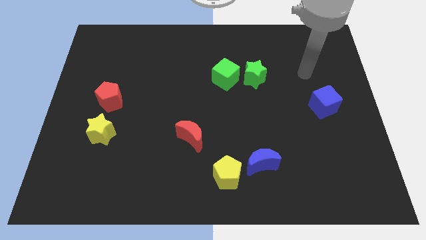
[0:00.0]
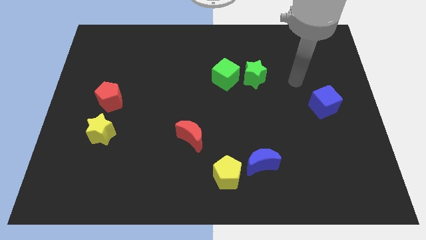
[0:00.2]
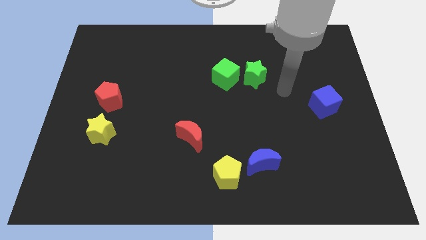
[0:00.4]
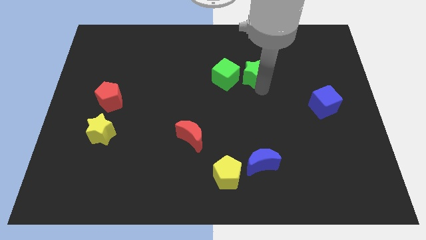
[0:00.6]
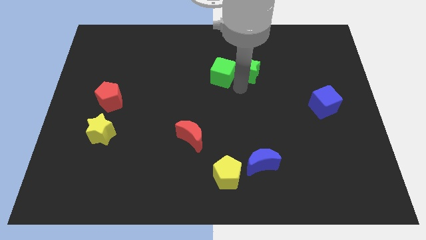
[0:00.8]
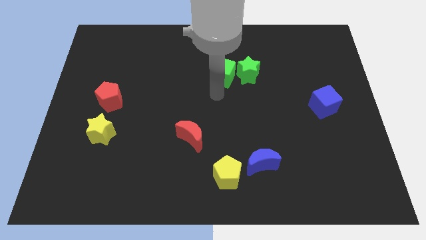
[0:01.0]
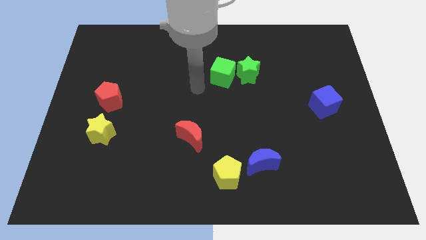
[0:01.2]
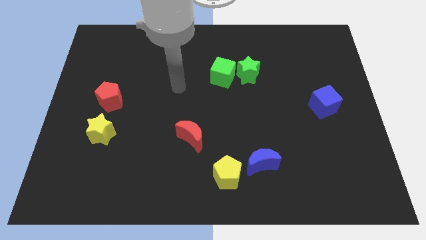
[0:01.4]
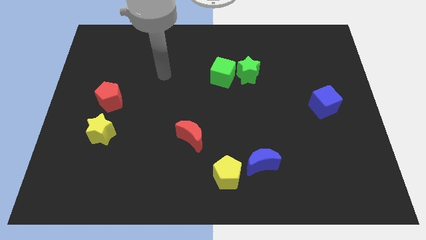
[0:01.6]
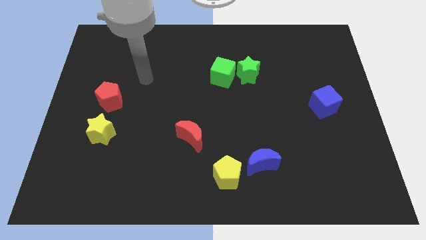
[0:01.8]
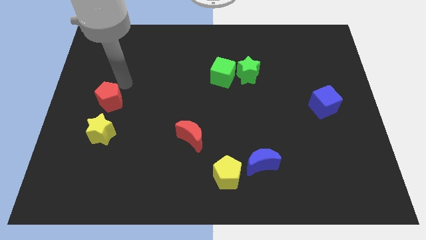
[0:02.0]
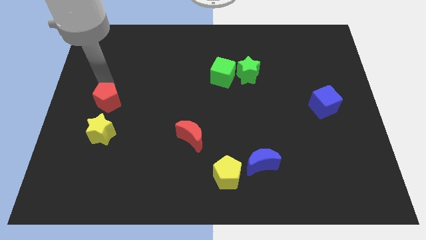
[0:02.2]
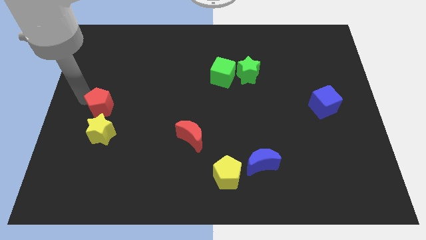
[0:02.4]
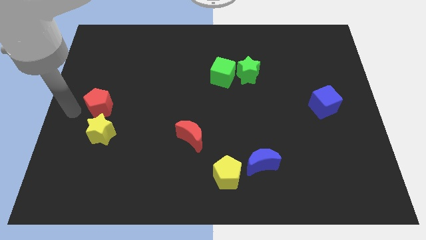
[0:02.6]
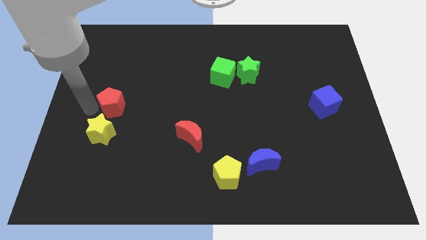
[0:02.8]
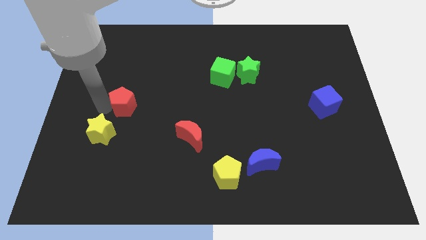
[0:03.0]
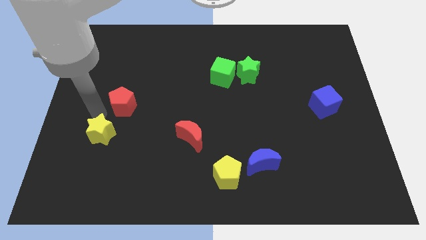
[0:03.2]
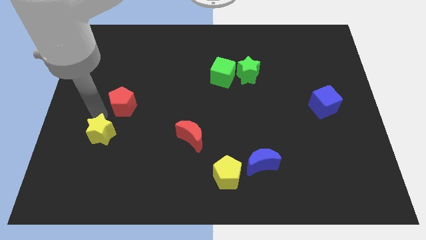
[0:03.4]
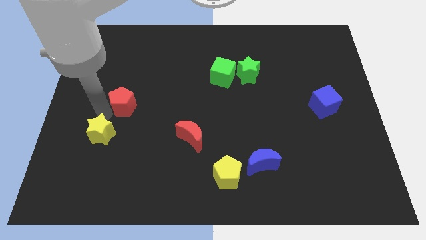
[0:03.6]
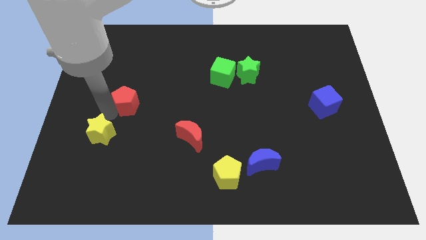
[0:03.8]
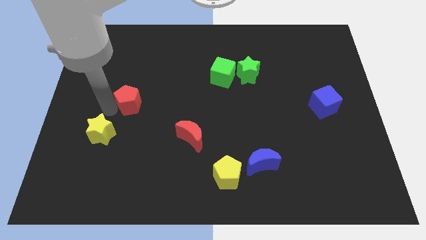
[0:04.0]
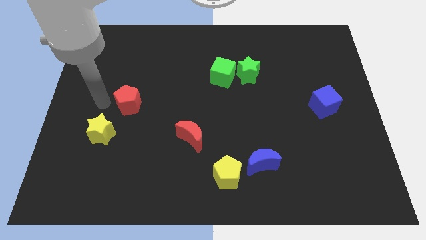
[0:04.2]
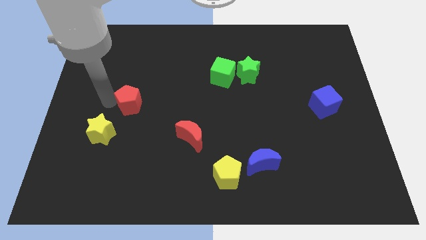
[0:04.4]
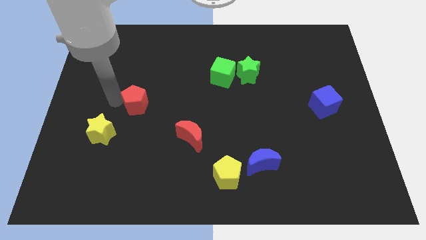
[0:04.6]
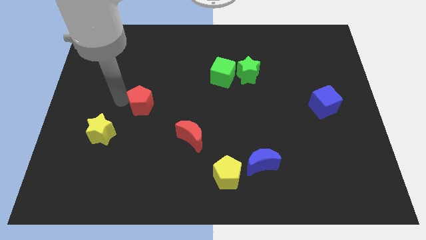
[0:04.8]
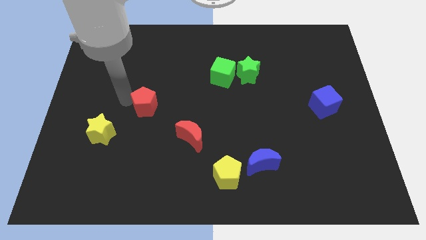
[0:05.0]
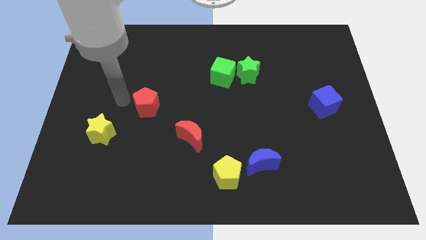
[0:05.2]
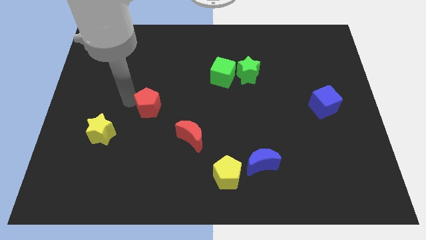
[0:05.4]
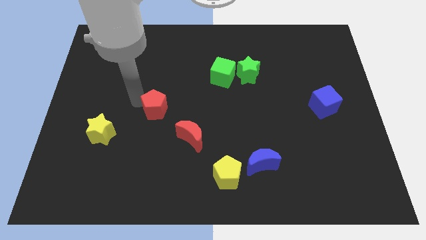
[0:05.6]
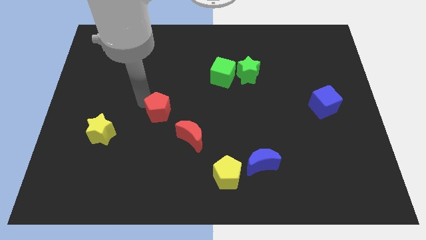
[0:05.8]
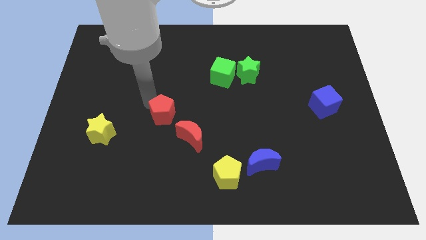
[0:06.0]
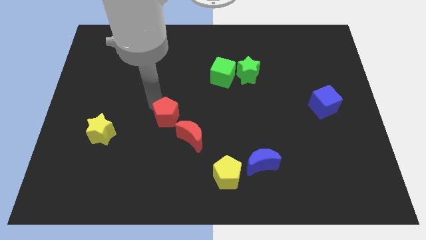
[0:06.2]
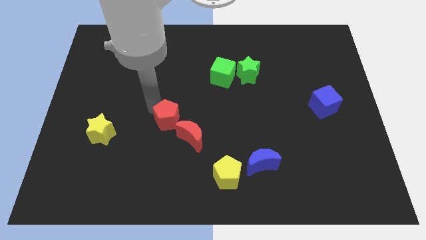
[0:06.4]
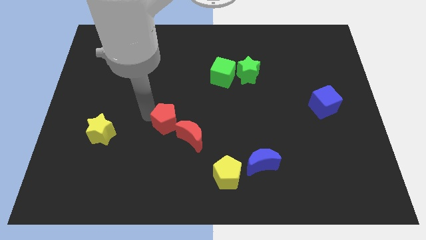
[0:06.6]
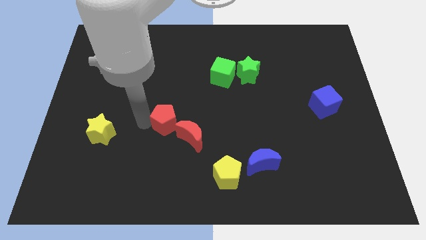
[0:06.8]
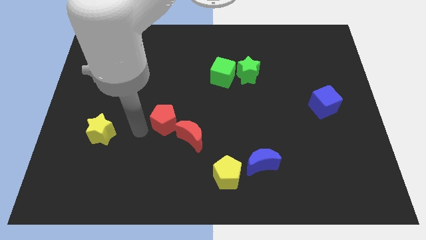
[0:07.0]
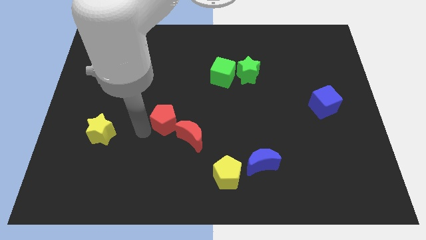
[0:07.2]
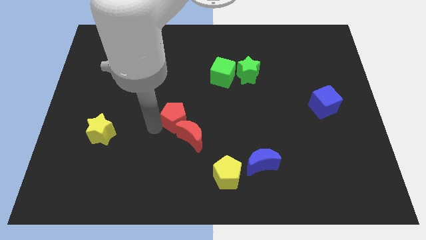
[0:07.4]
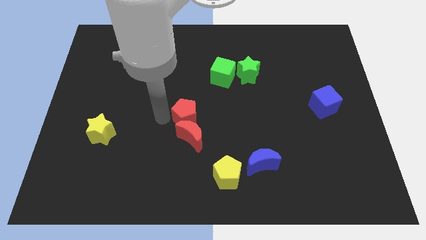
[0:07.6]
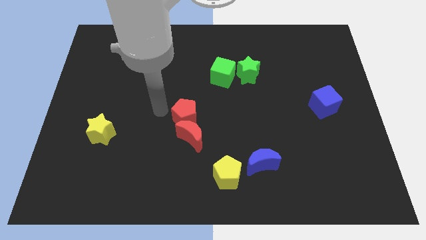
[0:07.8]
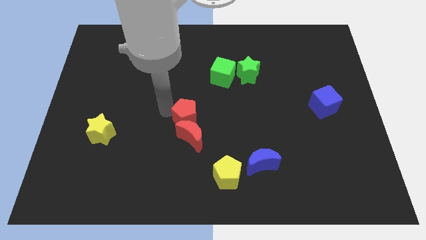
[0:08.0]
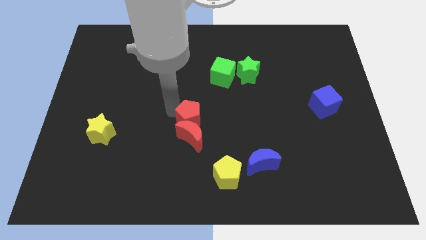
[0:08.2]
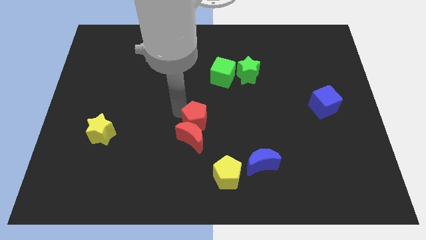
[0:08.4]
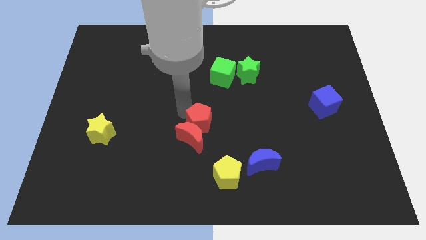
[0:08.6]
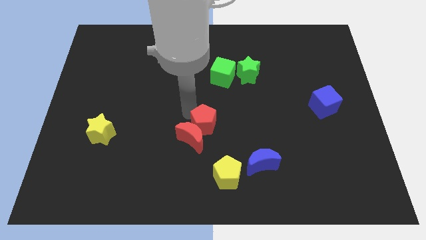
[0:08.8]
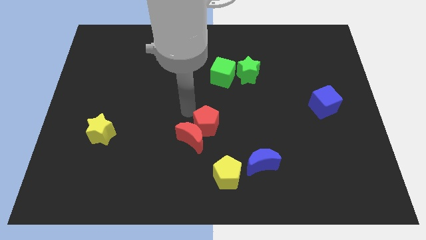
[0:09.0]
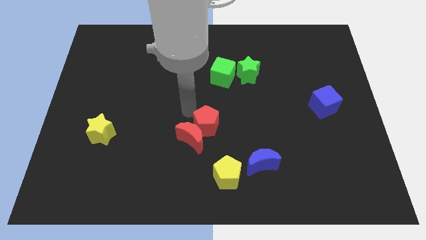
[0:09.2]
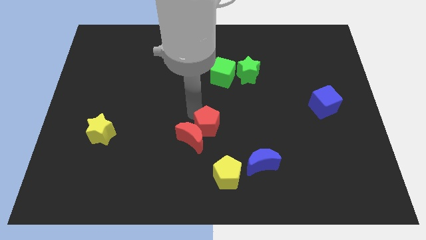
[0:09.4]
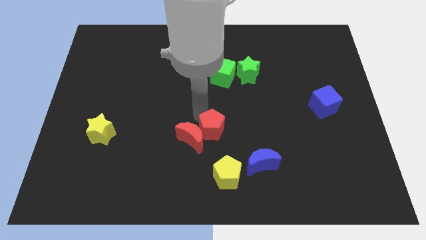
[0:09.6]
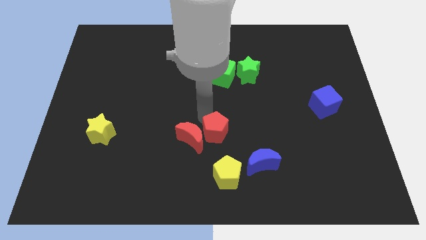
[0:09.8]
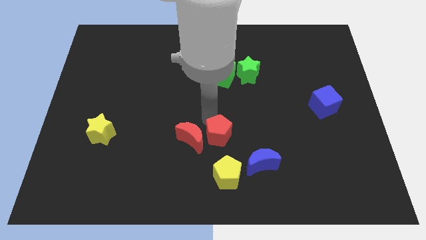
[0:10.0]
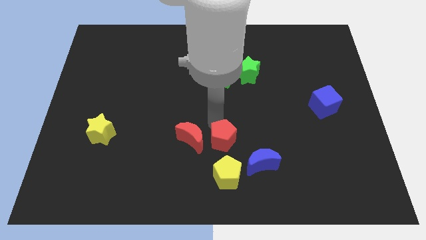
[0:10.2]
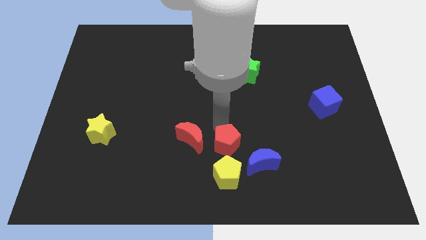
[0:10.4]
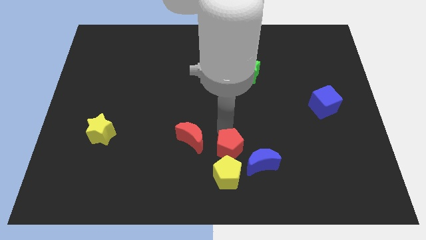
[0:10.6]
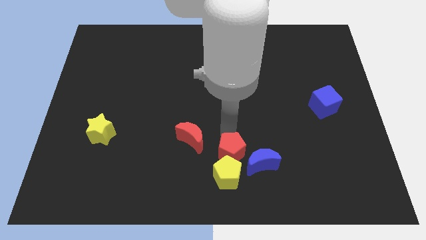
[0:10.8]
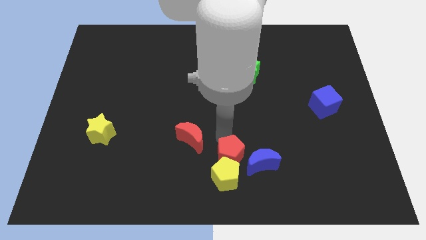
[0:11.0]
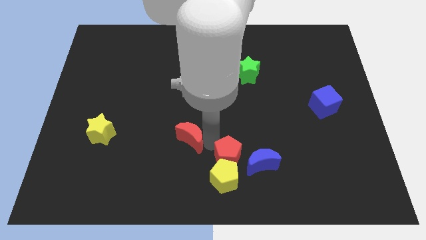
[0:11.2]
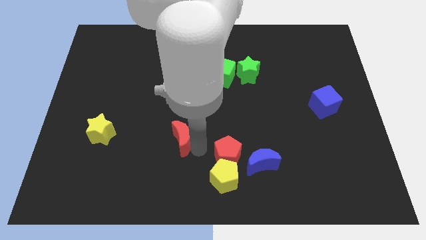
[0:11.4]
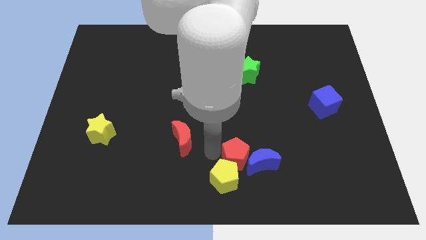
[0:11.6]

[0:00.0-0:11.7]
put the red pentagon next to the blue moon
